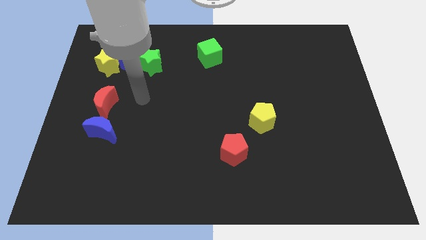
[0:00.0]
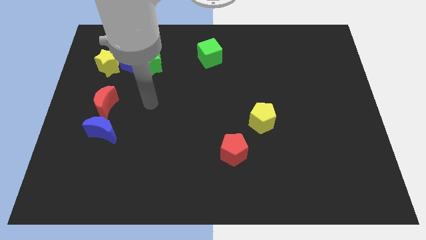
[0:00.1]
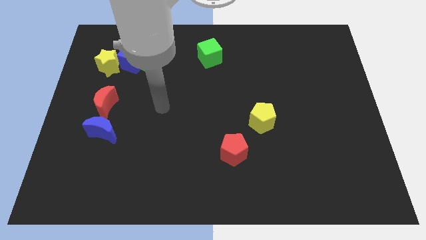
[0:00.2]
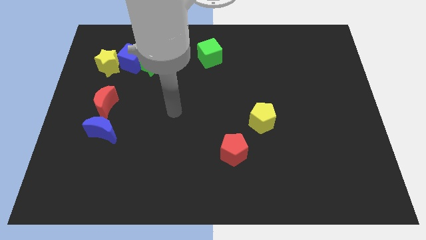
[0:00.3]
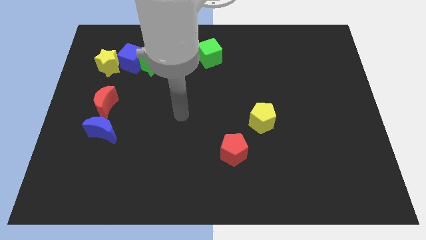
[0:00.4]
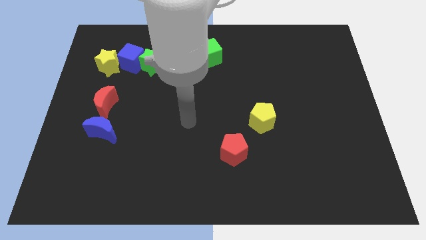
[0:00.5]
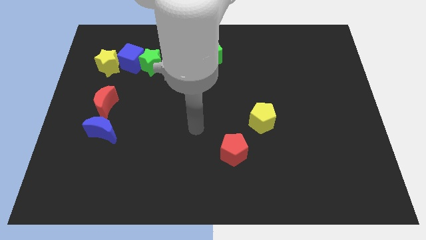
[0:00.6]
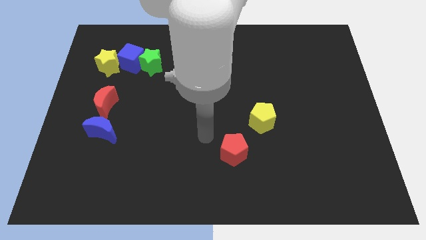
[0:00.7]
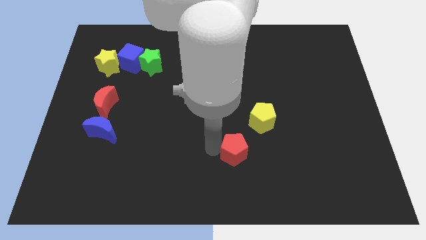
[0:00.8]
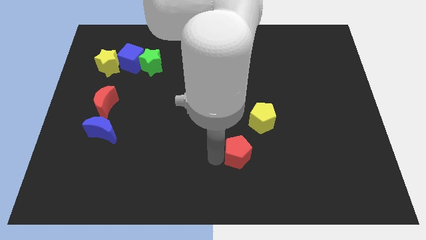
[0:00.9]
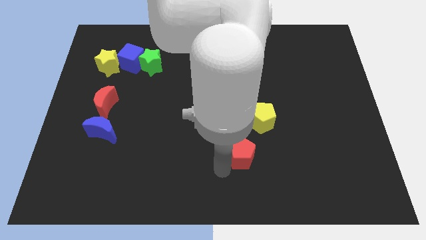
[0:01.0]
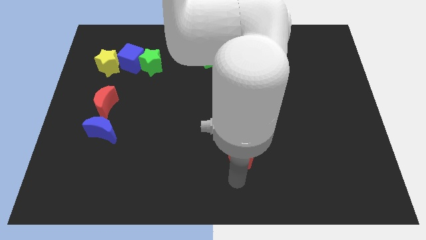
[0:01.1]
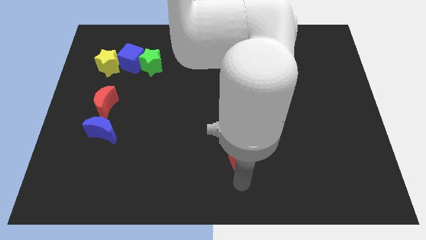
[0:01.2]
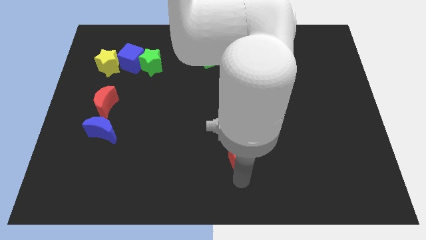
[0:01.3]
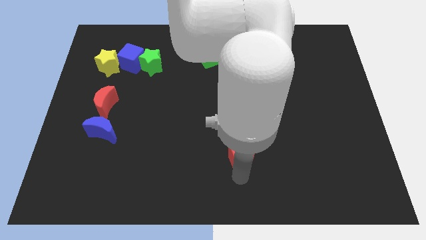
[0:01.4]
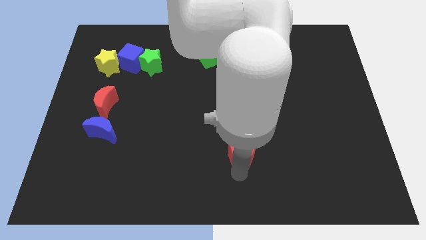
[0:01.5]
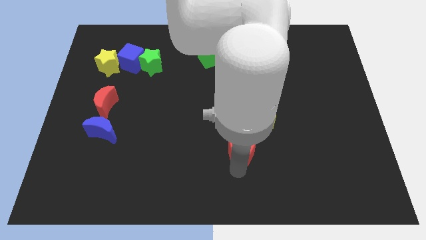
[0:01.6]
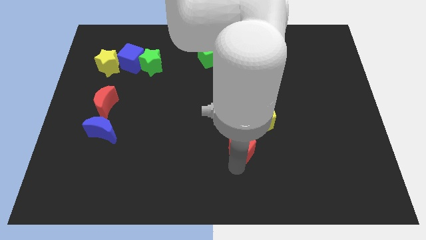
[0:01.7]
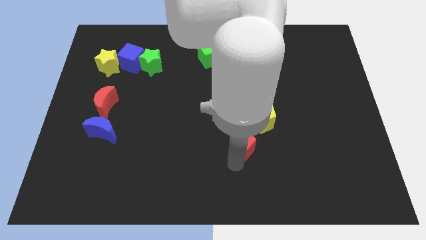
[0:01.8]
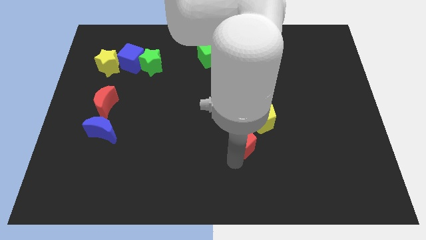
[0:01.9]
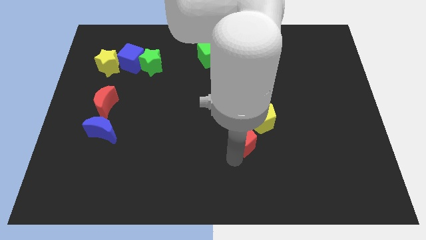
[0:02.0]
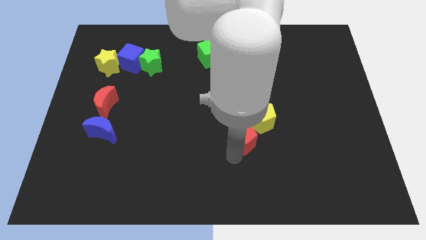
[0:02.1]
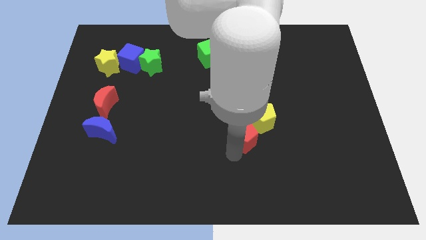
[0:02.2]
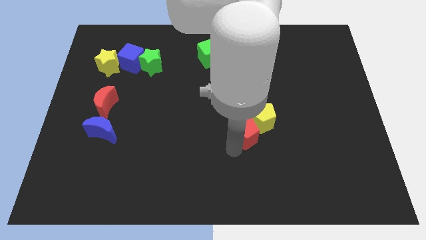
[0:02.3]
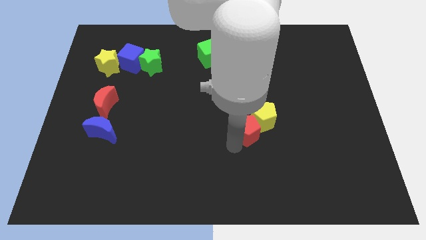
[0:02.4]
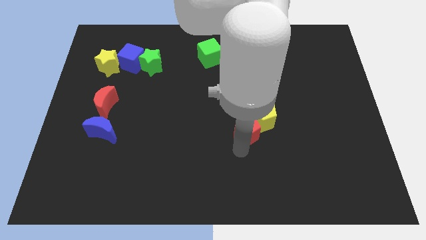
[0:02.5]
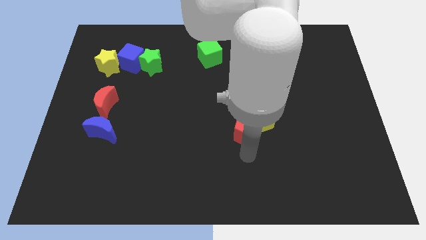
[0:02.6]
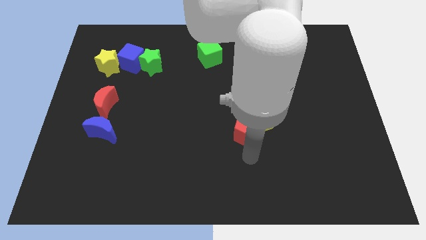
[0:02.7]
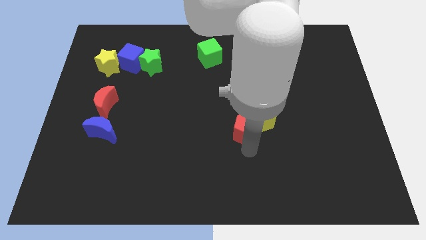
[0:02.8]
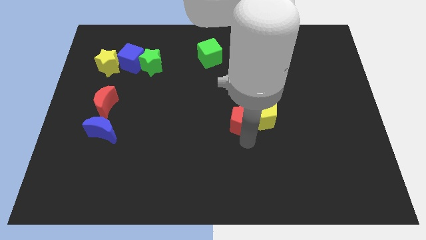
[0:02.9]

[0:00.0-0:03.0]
push the red pentagon a bit upwards

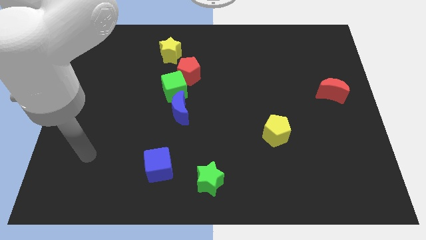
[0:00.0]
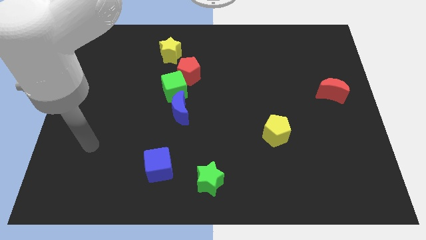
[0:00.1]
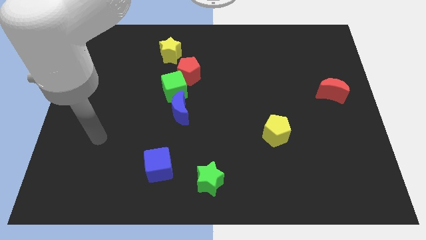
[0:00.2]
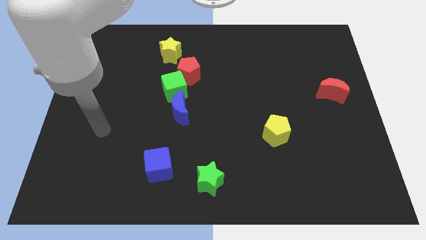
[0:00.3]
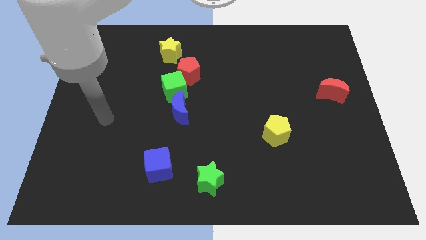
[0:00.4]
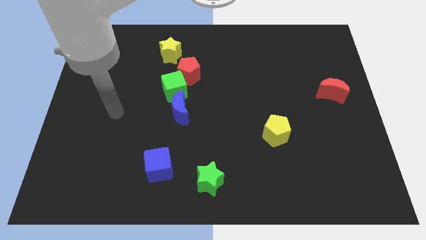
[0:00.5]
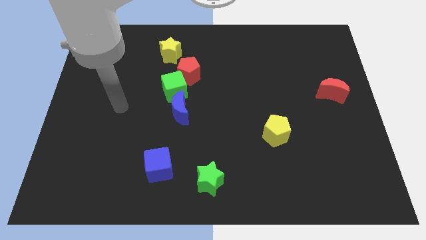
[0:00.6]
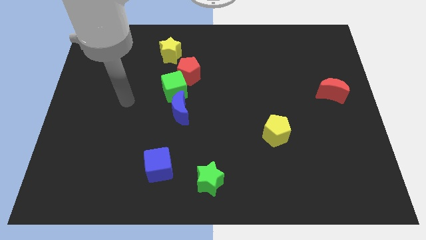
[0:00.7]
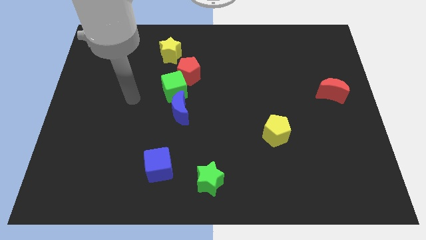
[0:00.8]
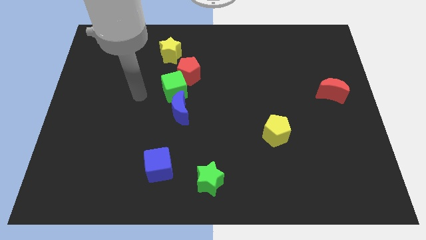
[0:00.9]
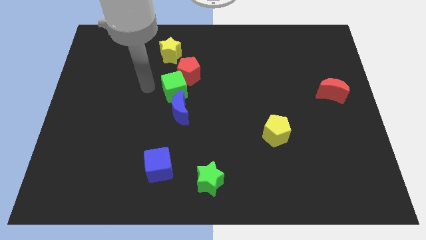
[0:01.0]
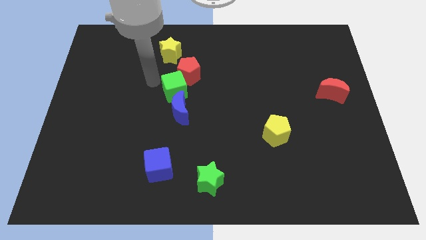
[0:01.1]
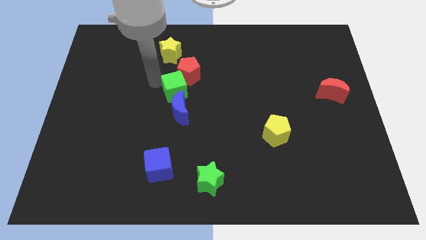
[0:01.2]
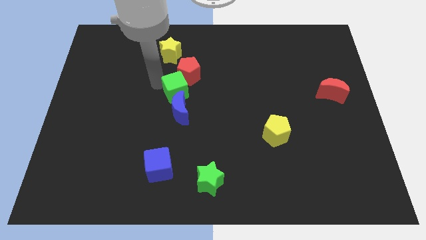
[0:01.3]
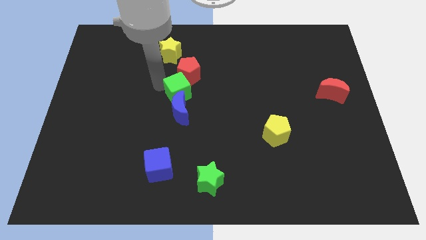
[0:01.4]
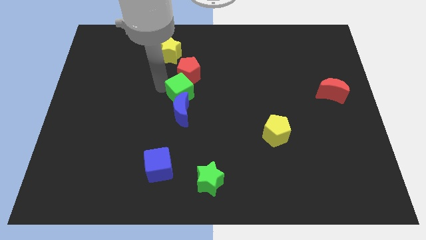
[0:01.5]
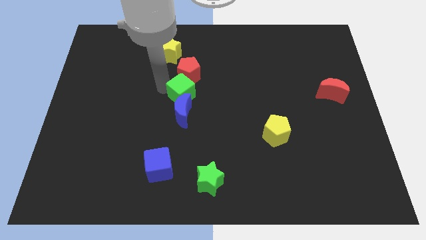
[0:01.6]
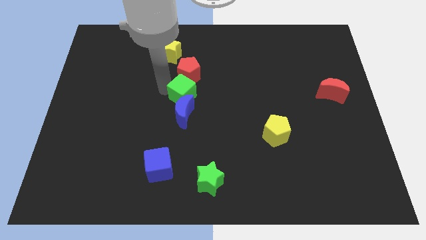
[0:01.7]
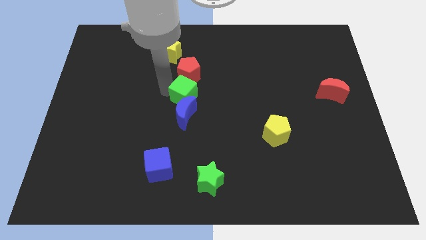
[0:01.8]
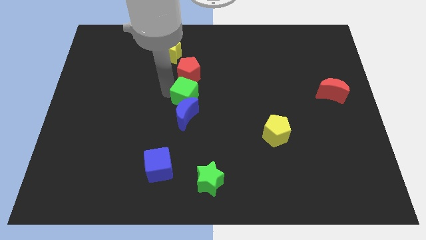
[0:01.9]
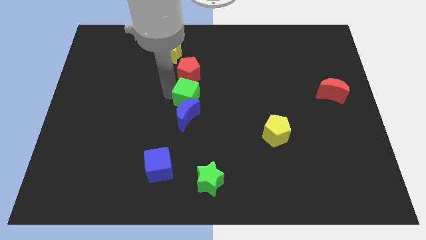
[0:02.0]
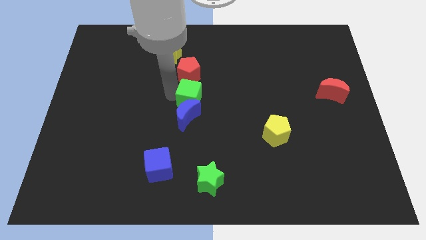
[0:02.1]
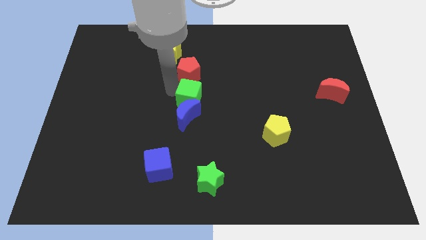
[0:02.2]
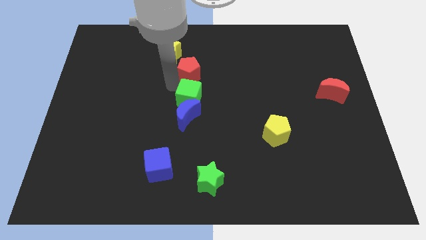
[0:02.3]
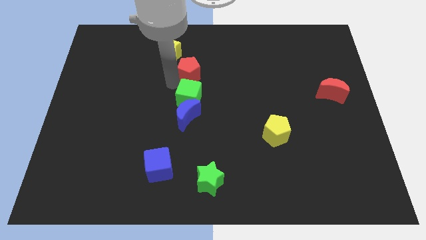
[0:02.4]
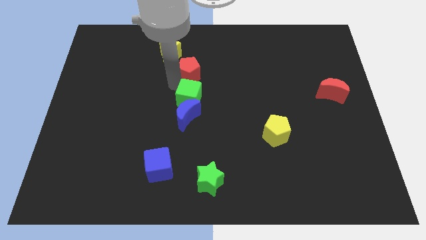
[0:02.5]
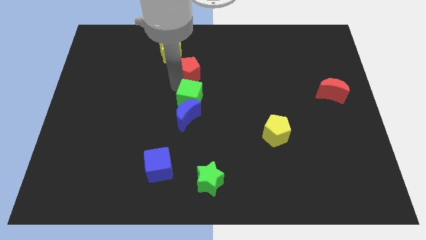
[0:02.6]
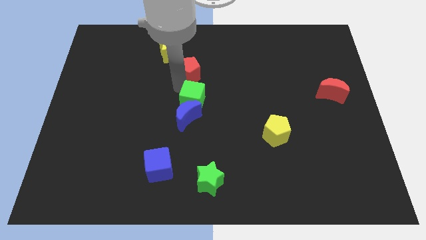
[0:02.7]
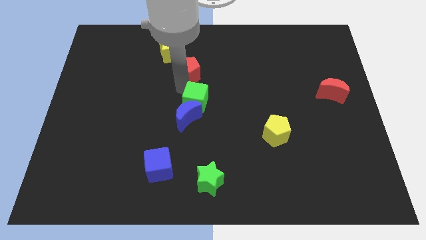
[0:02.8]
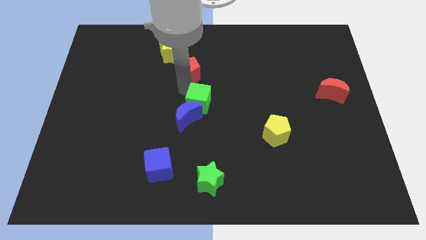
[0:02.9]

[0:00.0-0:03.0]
push the green cube a little diagonally downwards and to the right

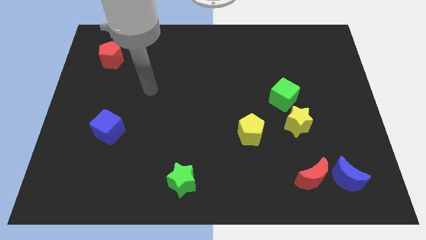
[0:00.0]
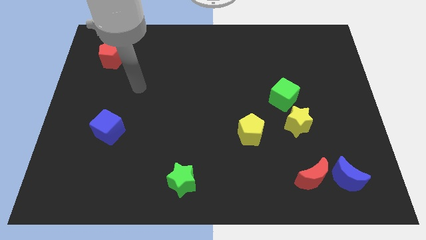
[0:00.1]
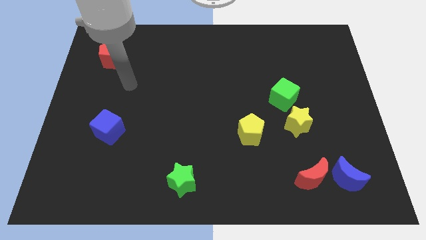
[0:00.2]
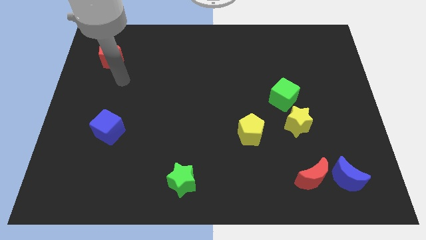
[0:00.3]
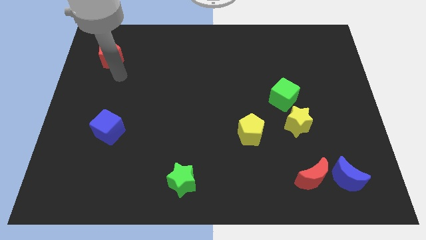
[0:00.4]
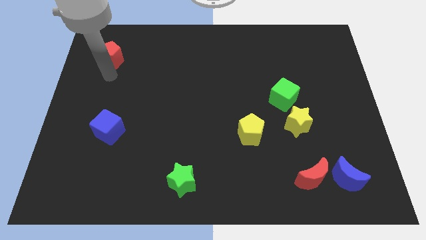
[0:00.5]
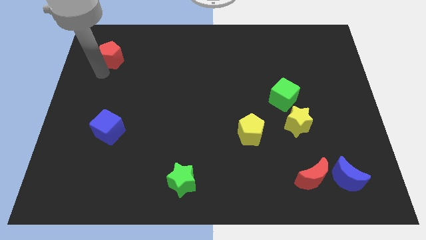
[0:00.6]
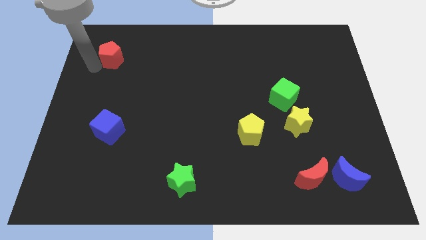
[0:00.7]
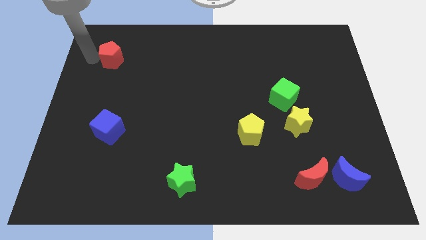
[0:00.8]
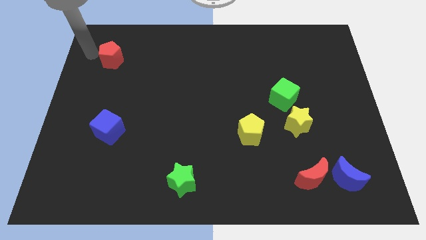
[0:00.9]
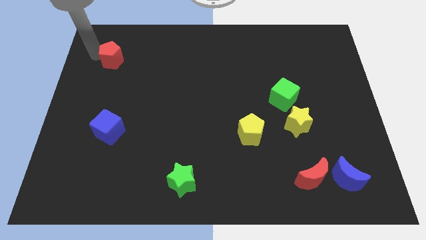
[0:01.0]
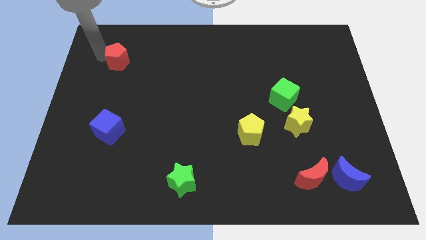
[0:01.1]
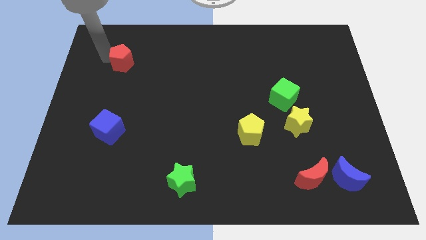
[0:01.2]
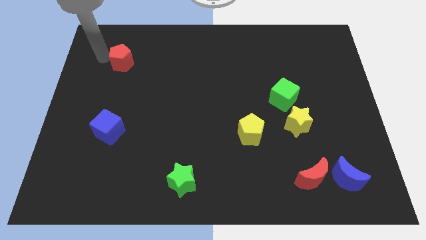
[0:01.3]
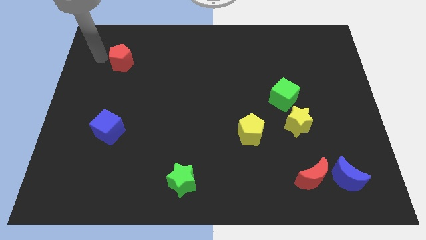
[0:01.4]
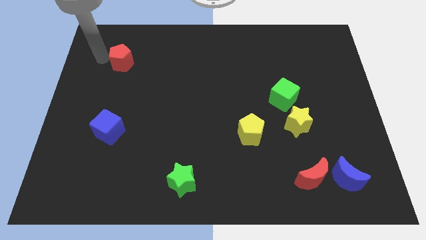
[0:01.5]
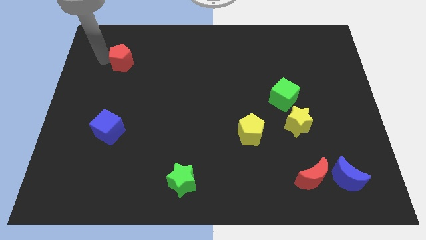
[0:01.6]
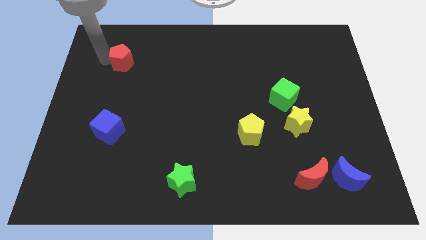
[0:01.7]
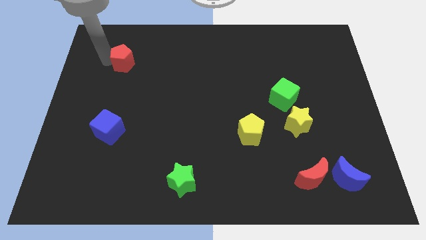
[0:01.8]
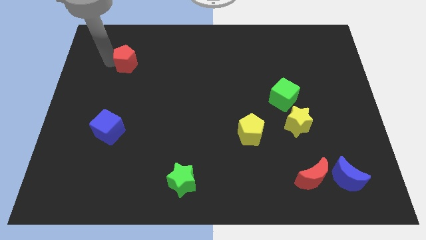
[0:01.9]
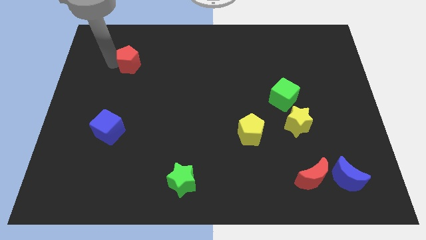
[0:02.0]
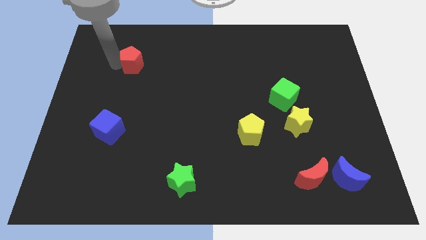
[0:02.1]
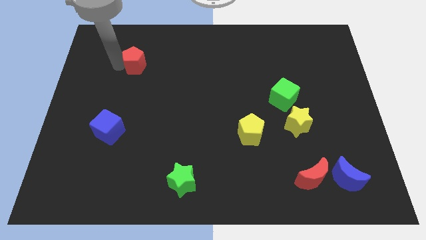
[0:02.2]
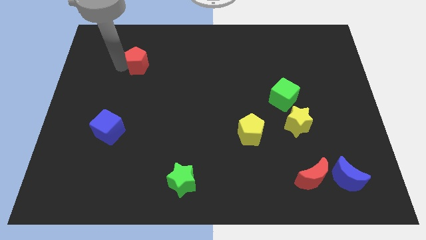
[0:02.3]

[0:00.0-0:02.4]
slightly slide the red pentagon right

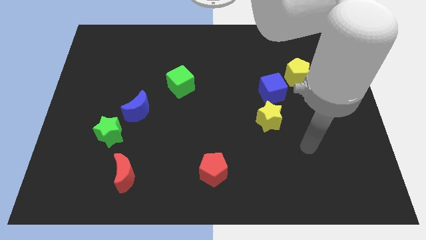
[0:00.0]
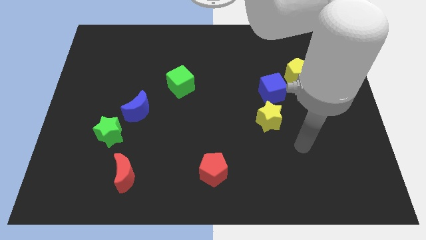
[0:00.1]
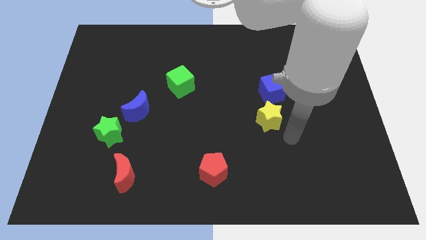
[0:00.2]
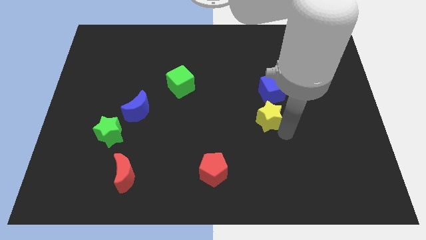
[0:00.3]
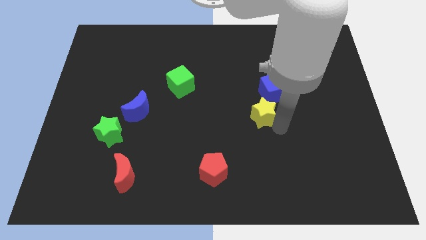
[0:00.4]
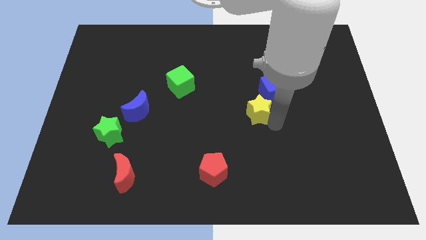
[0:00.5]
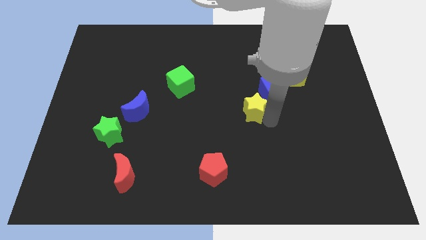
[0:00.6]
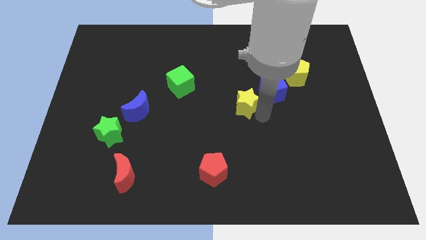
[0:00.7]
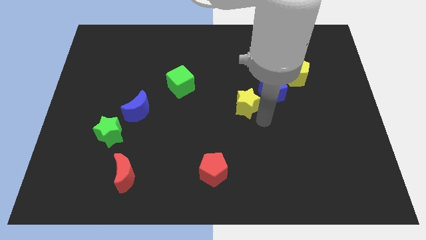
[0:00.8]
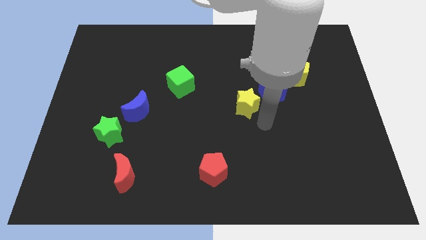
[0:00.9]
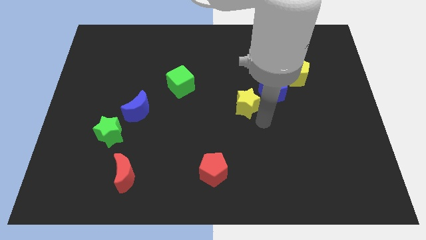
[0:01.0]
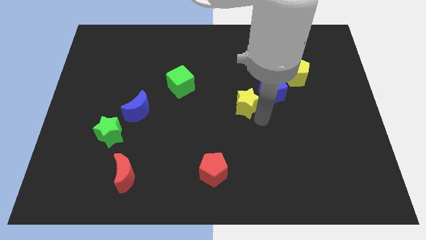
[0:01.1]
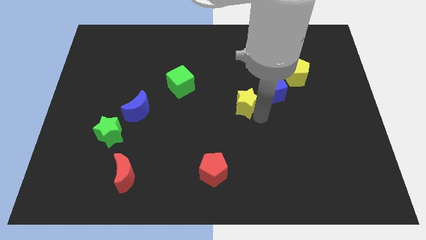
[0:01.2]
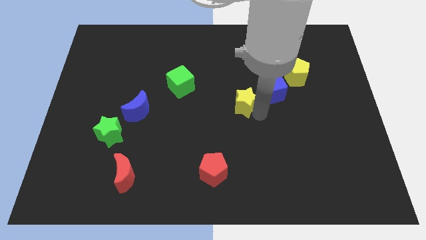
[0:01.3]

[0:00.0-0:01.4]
slightly slide the yellow star upwards and then left
